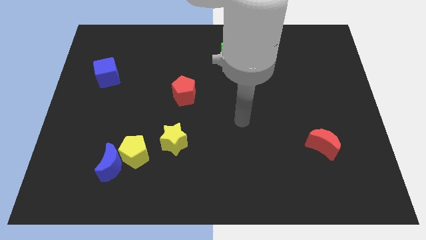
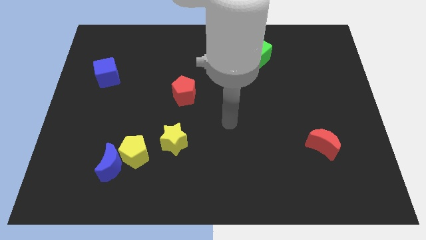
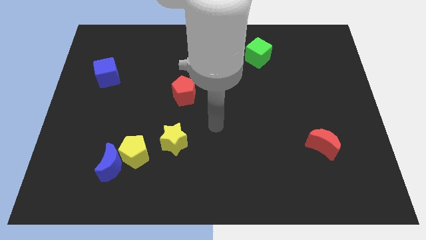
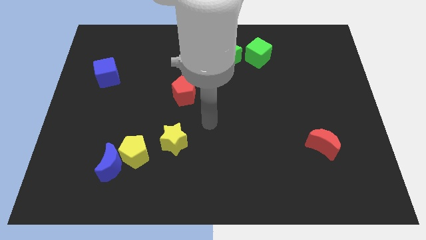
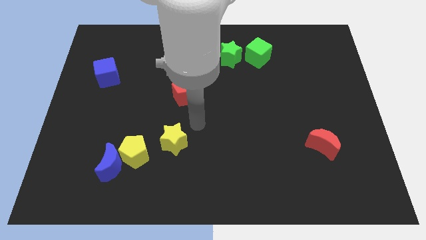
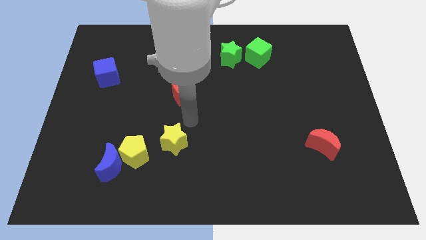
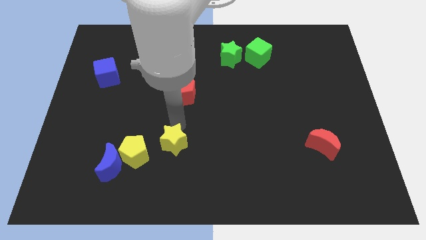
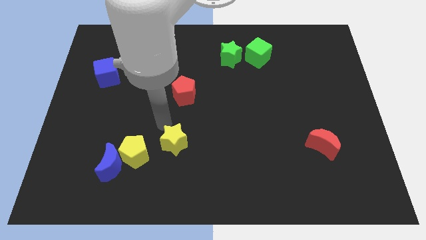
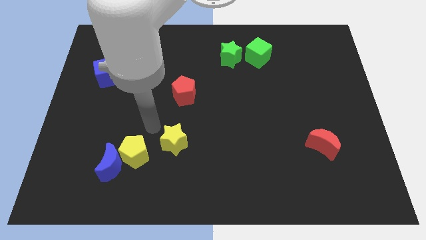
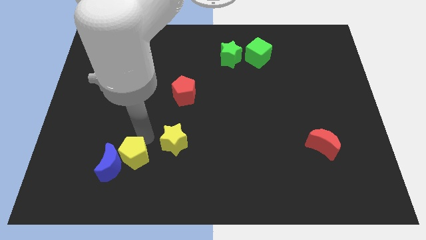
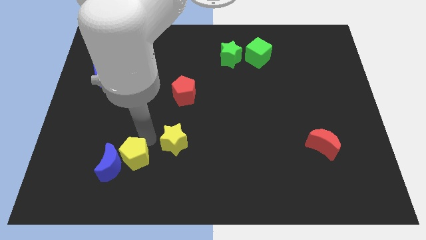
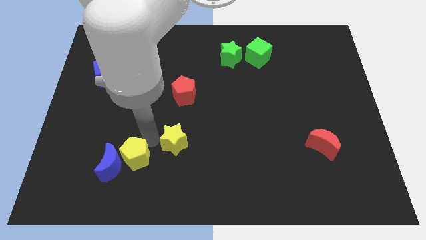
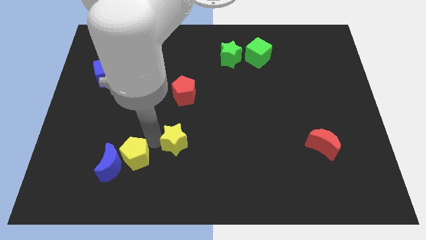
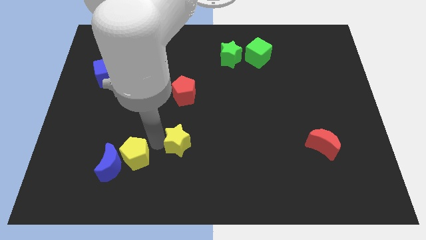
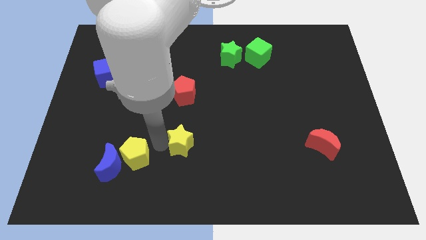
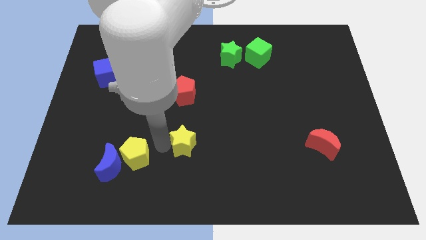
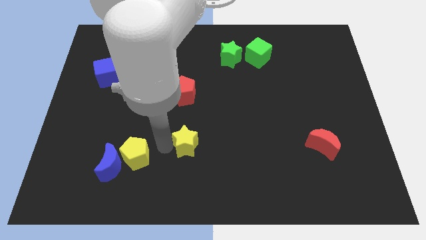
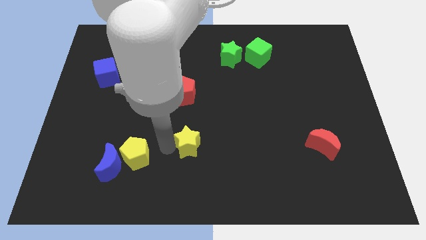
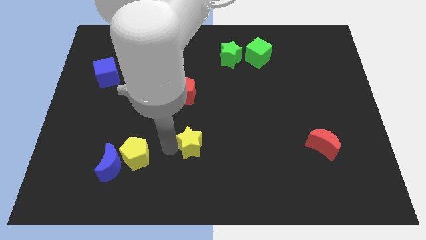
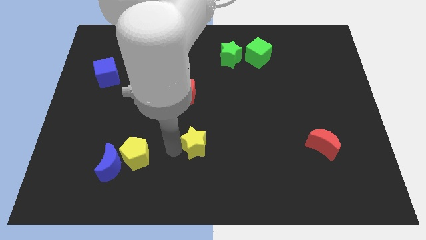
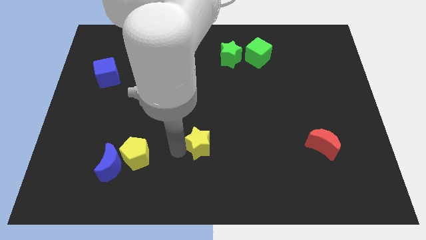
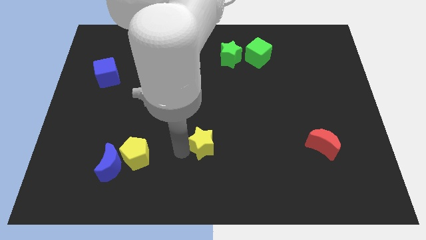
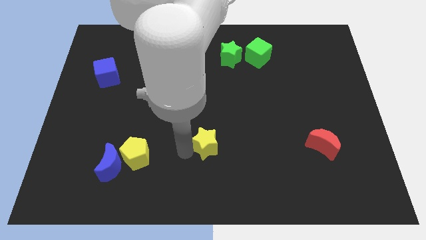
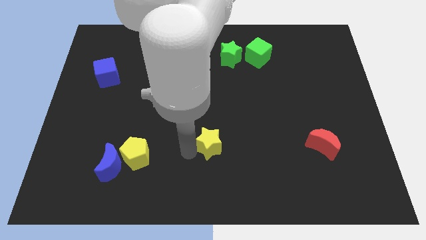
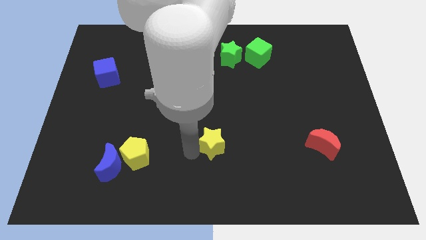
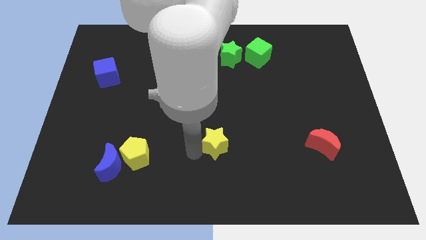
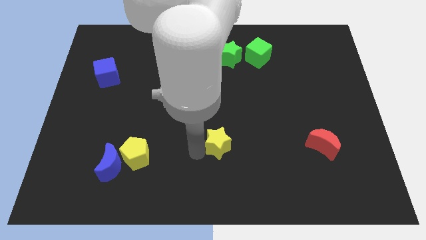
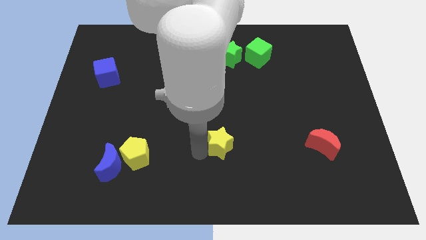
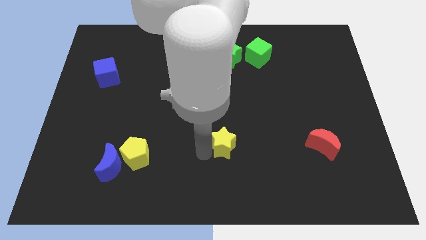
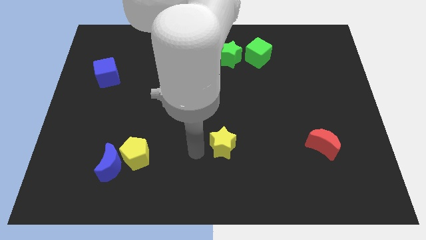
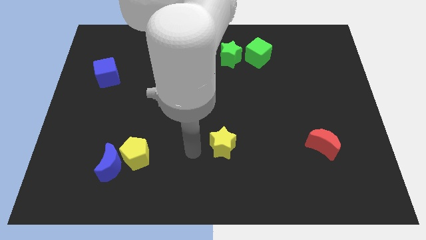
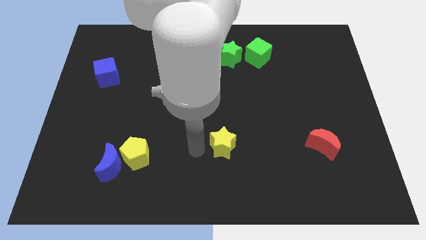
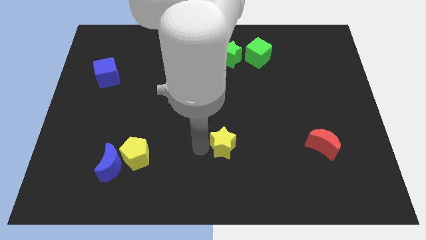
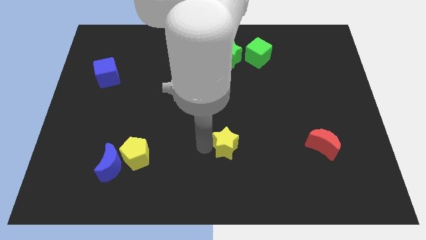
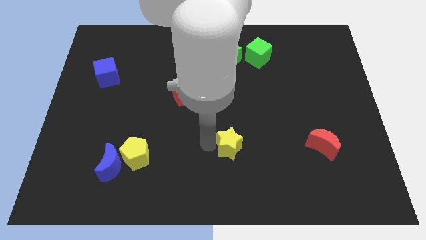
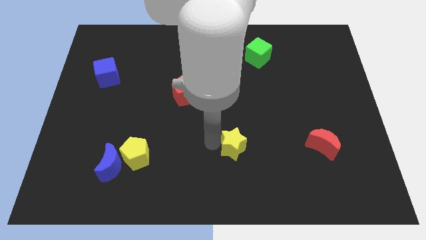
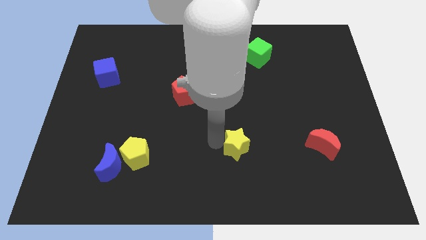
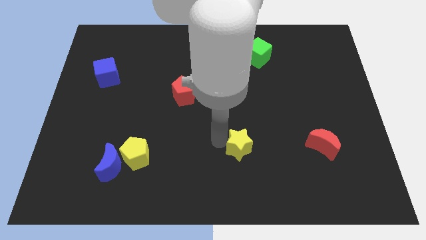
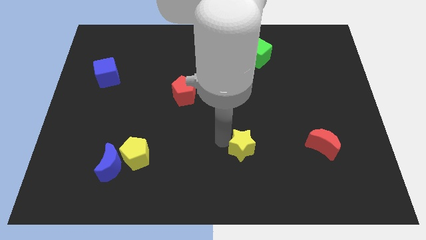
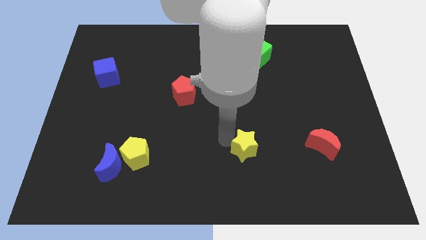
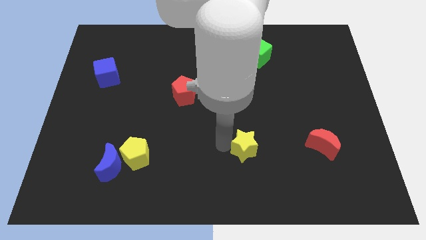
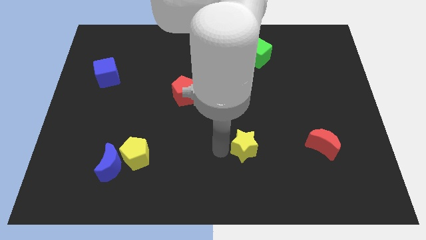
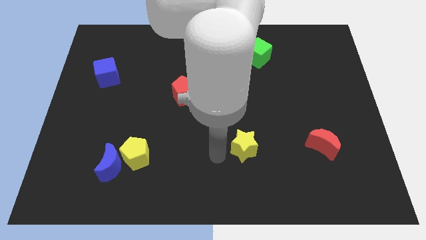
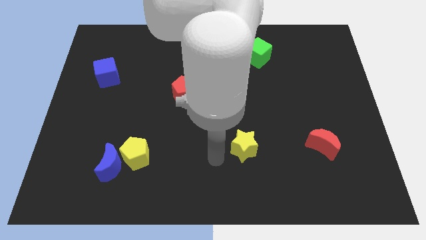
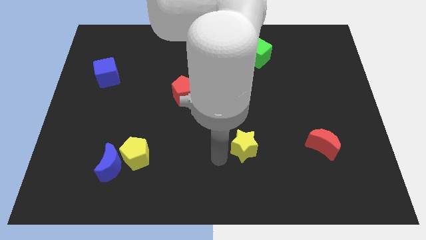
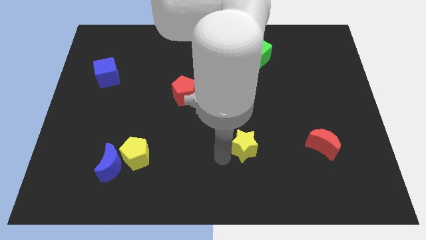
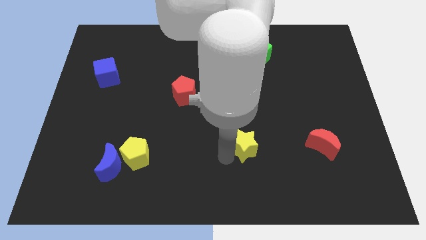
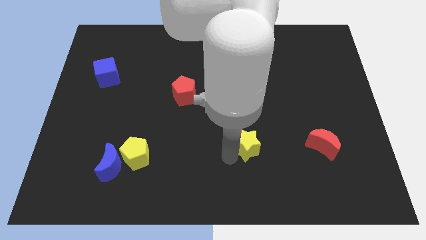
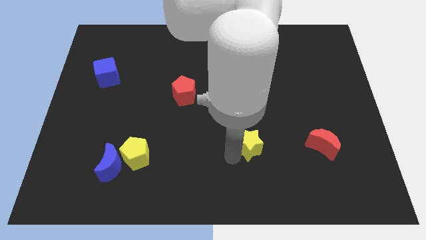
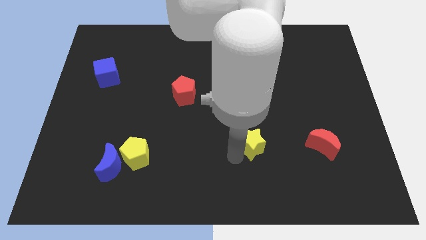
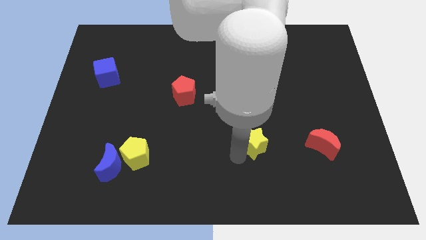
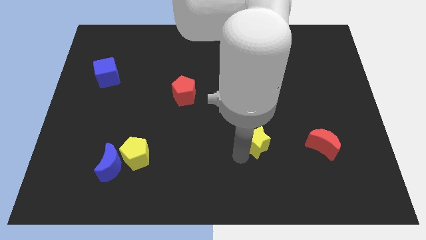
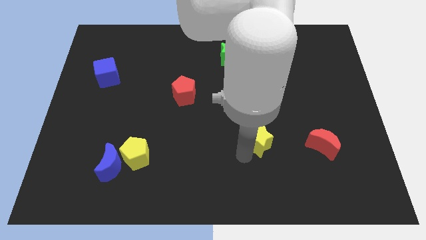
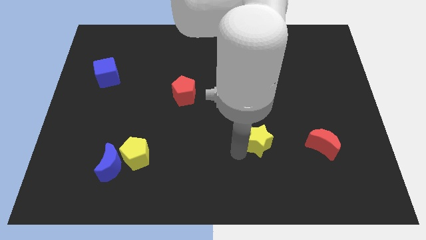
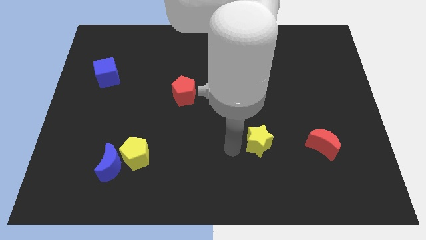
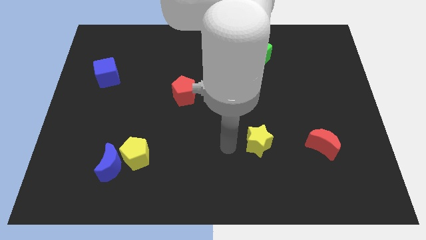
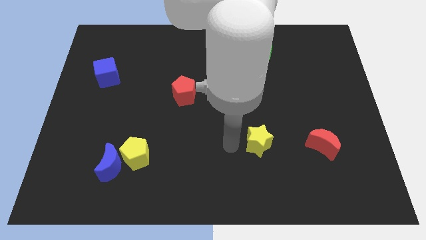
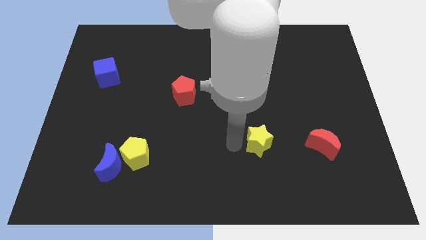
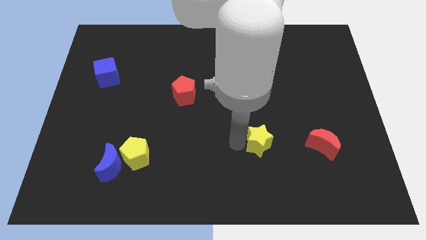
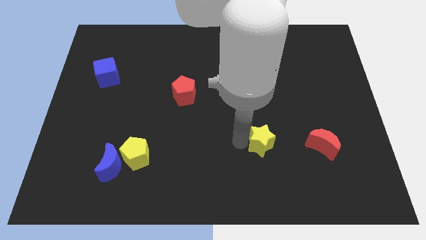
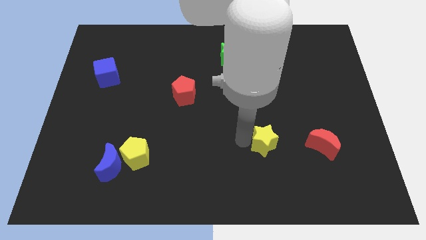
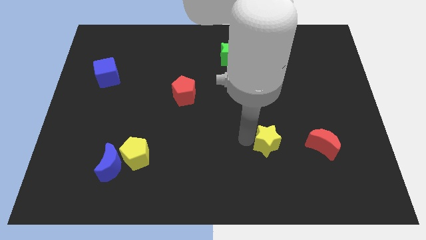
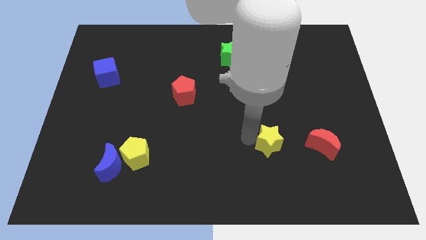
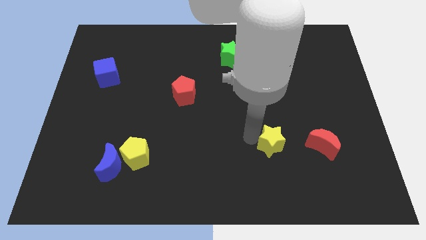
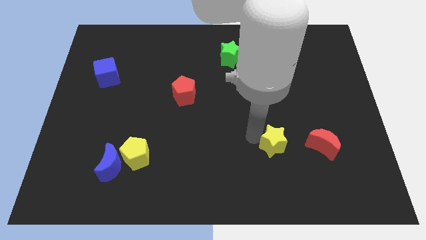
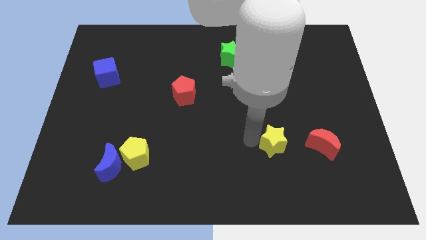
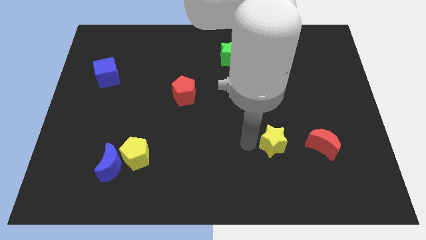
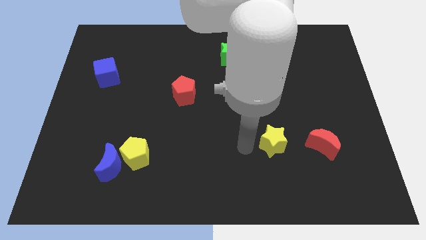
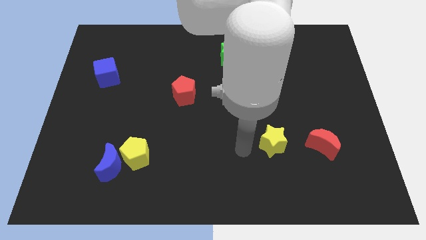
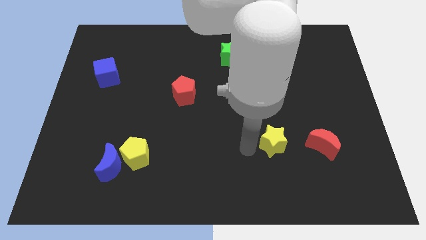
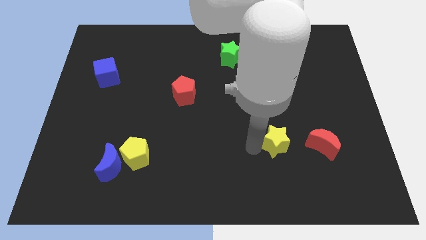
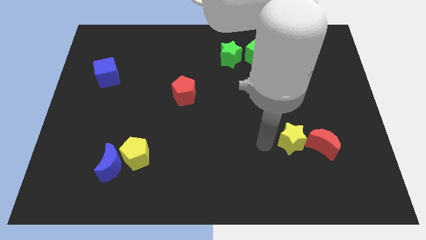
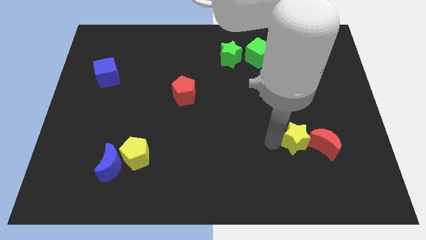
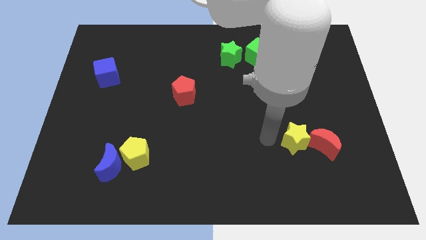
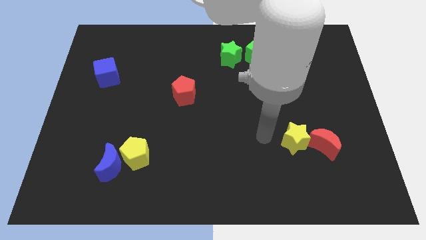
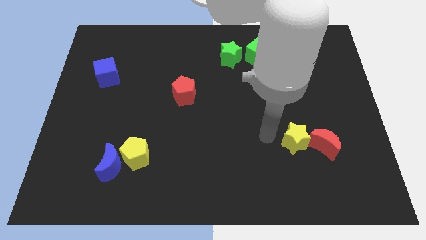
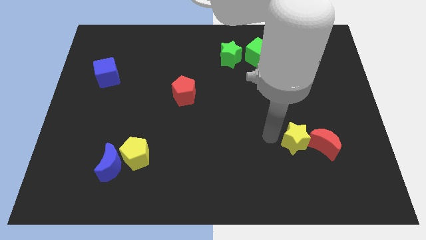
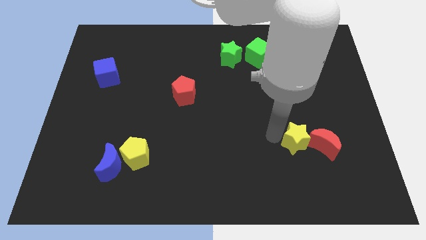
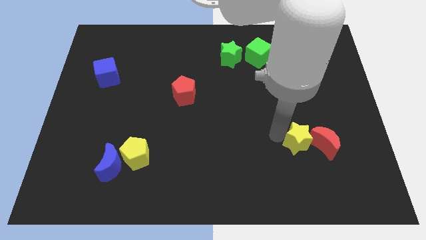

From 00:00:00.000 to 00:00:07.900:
slide the yellow star close to the red moon

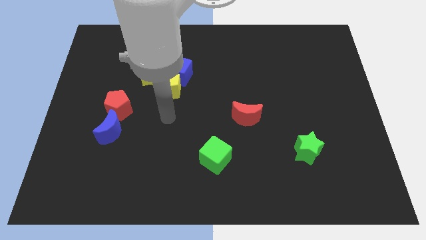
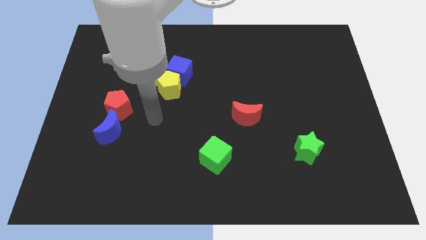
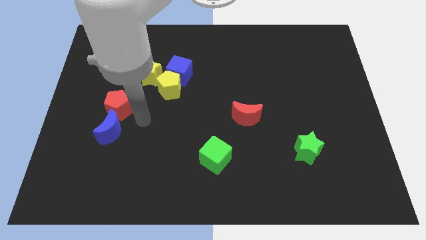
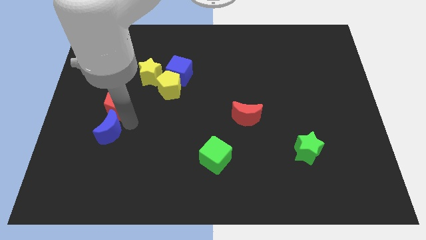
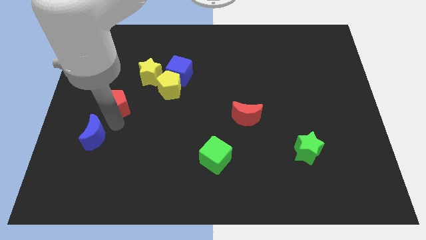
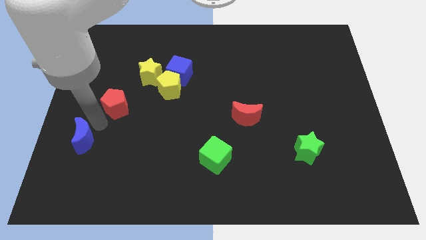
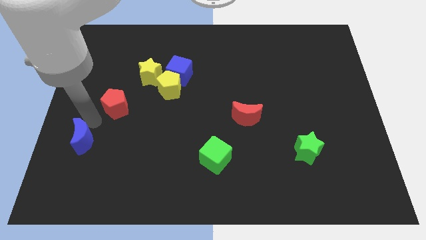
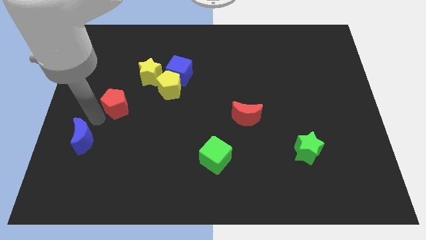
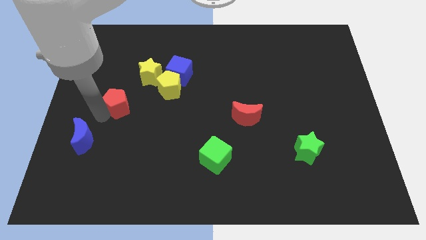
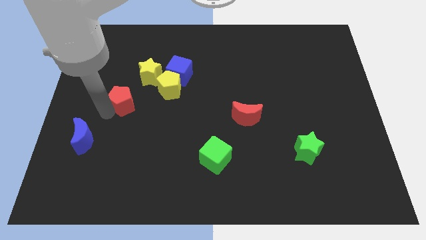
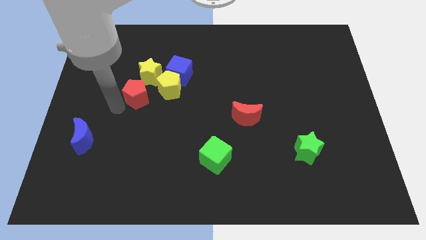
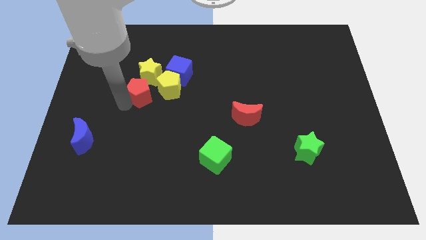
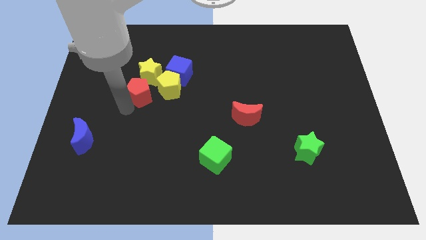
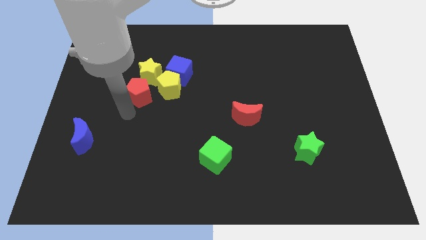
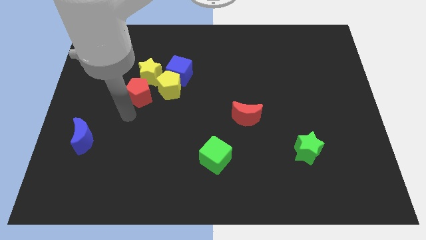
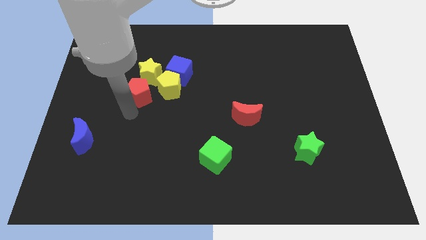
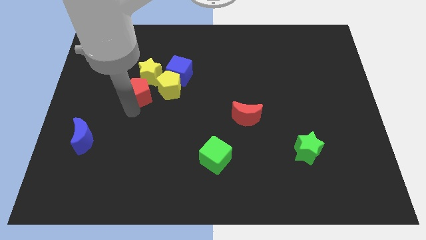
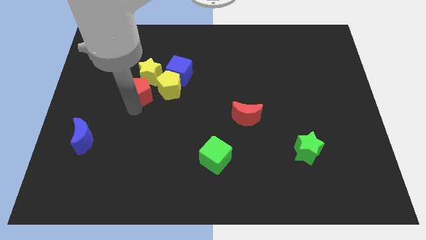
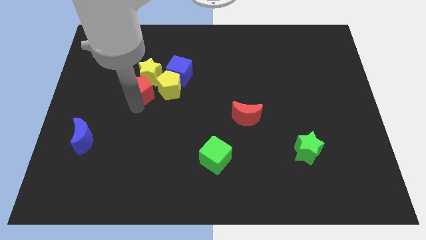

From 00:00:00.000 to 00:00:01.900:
push the red pentagon towards the yellow star
